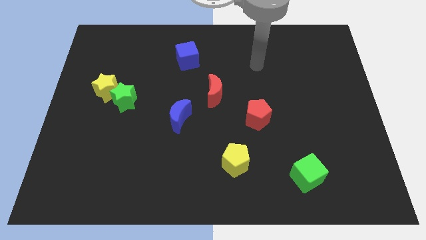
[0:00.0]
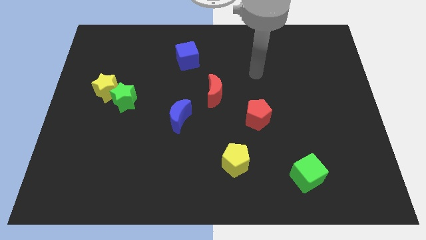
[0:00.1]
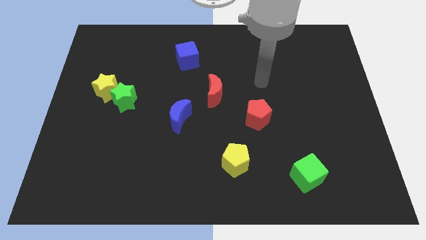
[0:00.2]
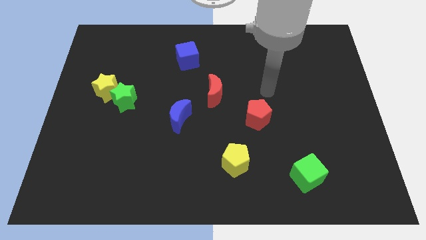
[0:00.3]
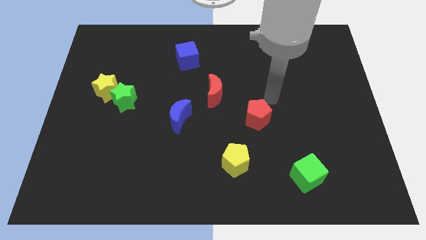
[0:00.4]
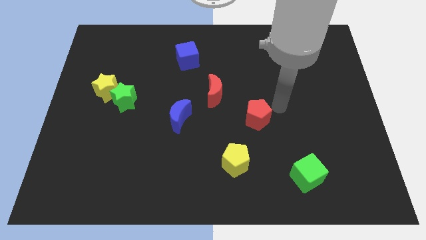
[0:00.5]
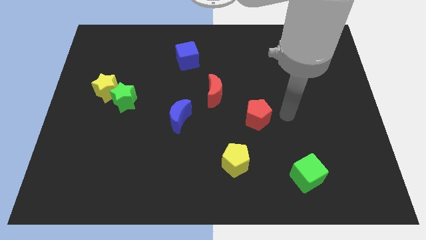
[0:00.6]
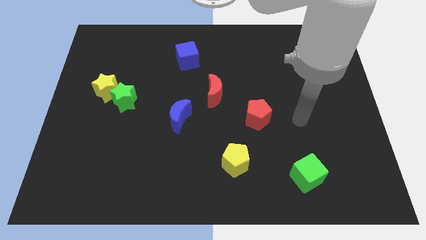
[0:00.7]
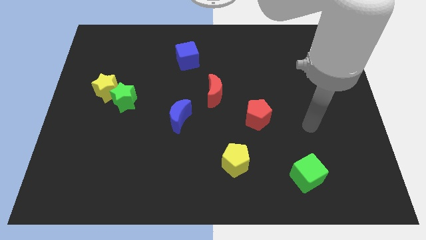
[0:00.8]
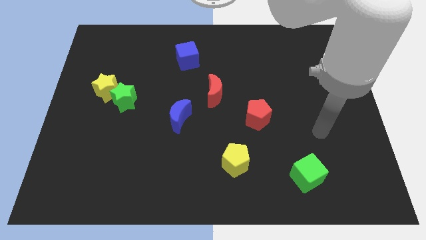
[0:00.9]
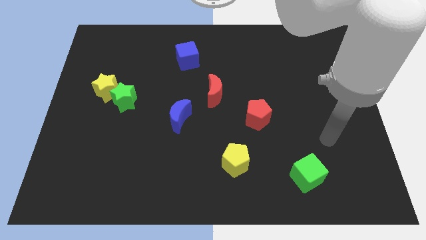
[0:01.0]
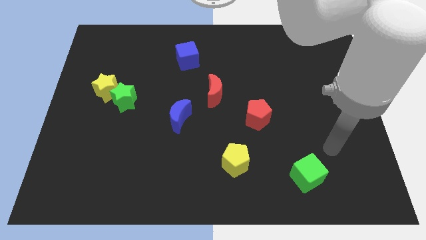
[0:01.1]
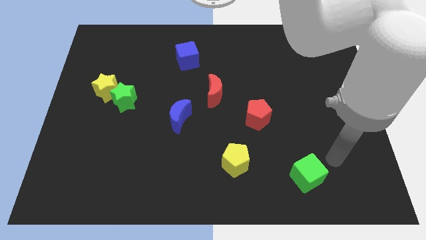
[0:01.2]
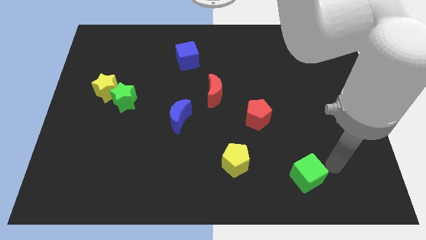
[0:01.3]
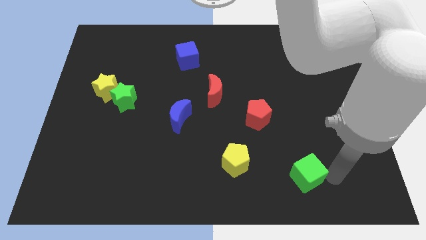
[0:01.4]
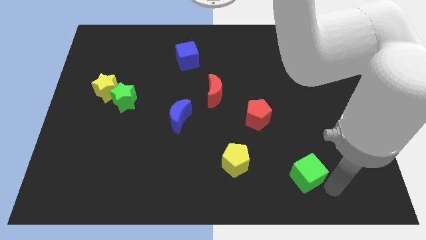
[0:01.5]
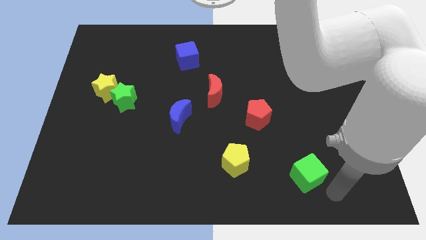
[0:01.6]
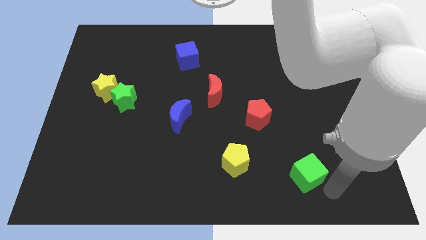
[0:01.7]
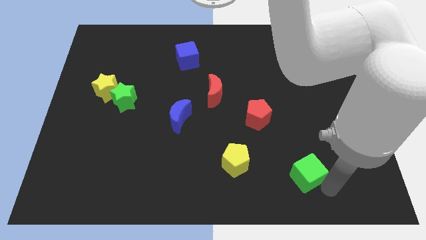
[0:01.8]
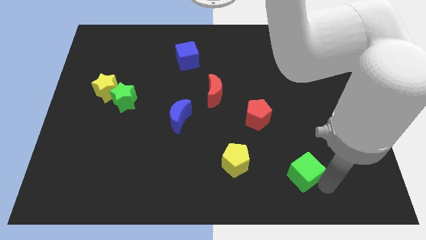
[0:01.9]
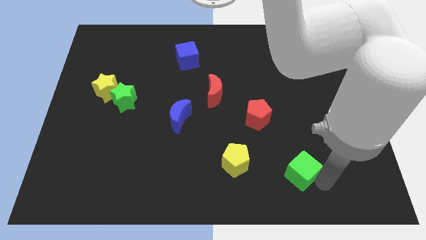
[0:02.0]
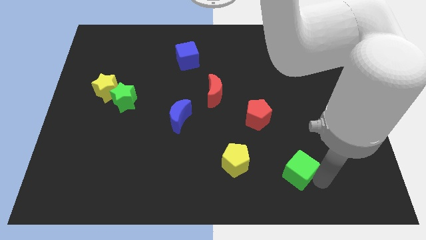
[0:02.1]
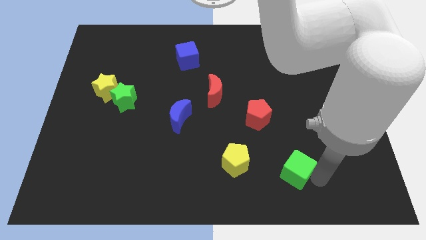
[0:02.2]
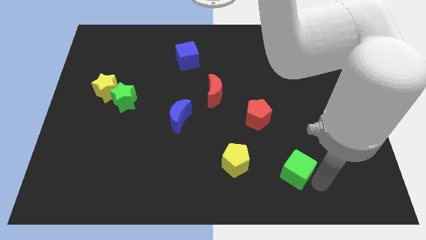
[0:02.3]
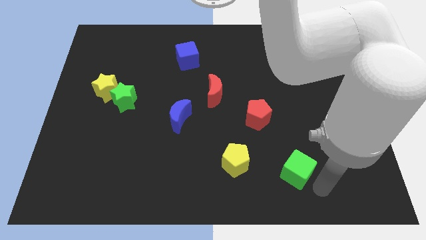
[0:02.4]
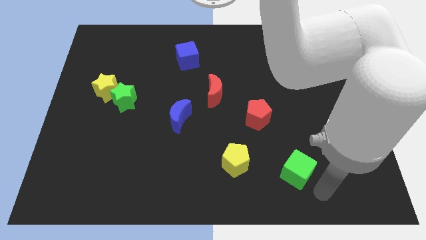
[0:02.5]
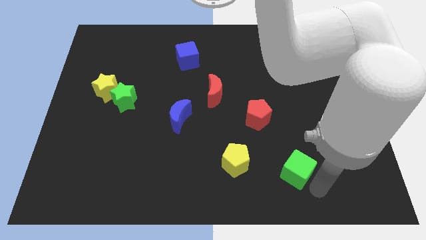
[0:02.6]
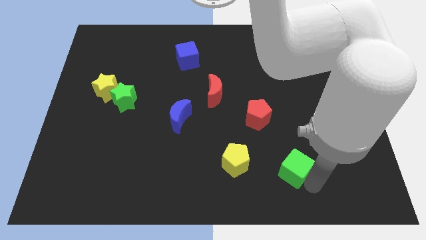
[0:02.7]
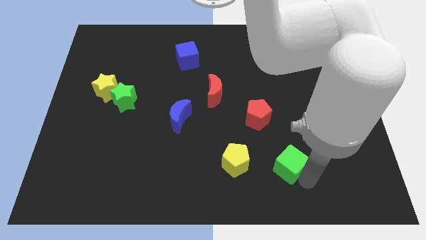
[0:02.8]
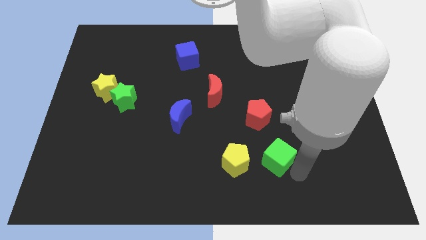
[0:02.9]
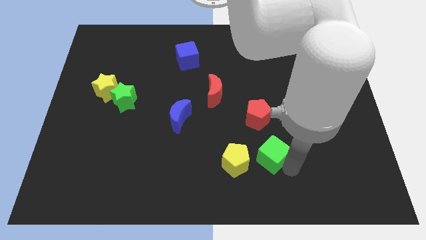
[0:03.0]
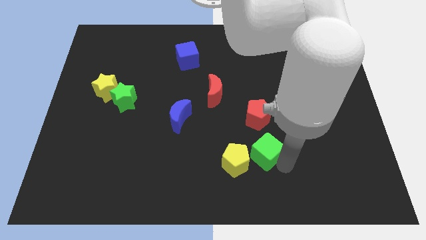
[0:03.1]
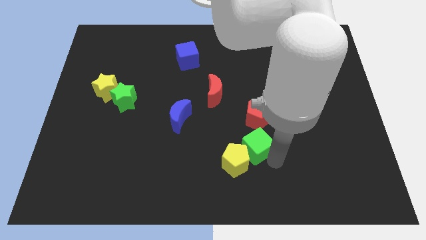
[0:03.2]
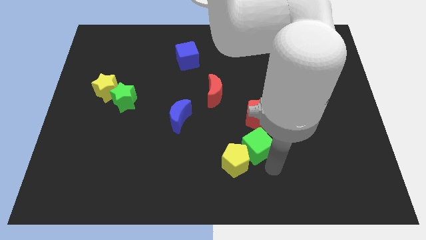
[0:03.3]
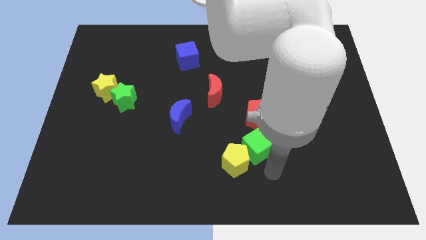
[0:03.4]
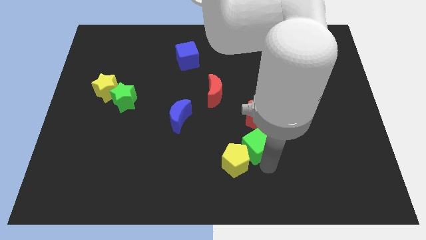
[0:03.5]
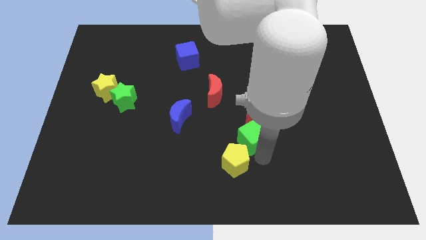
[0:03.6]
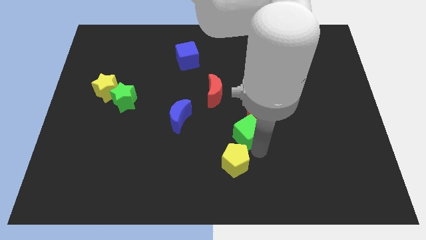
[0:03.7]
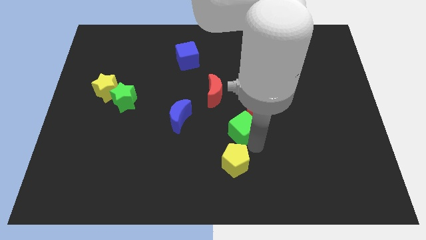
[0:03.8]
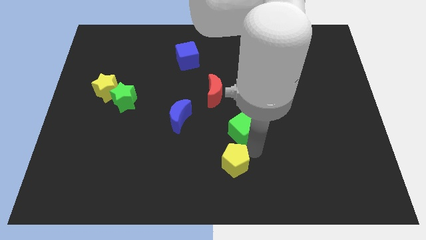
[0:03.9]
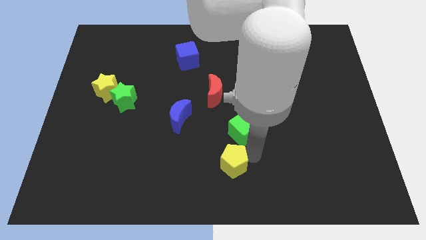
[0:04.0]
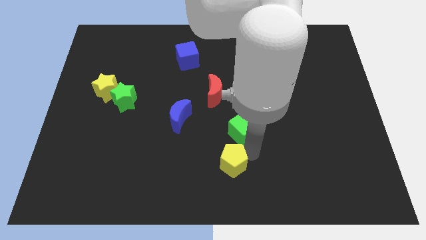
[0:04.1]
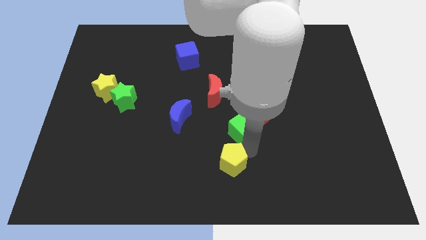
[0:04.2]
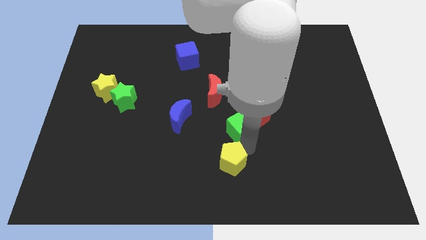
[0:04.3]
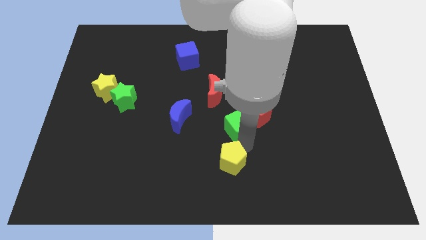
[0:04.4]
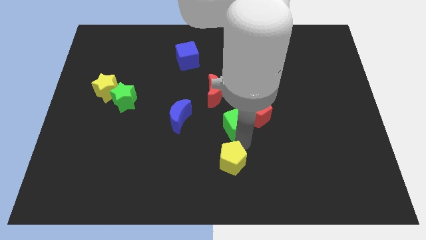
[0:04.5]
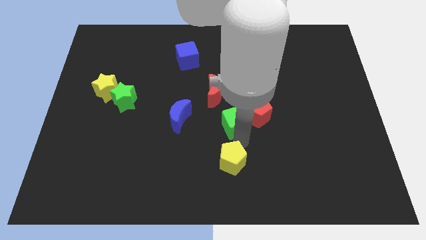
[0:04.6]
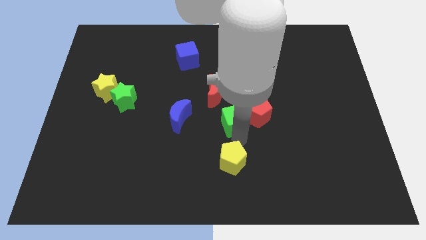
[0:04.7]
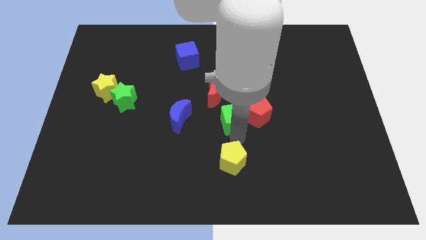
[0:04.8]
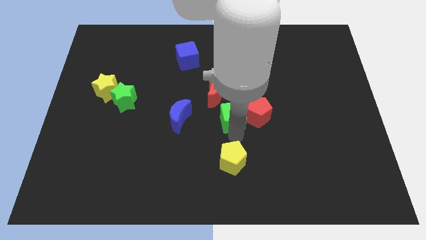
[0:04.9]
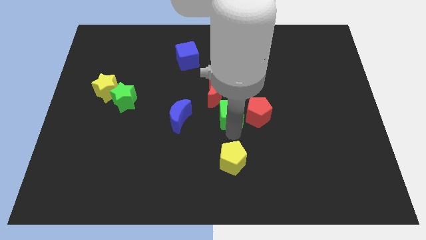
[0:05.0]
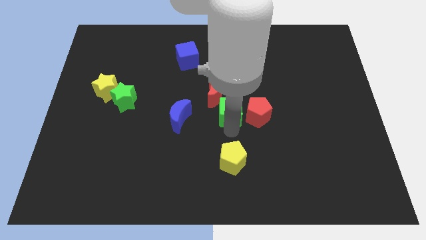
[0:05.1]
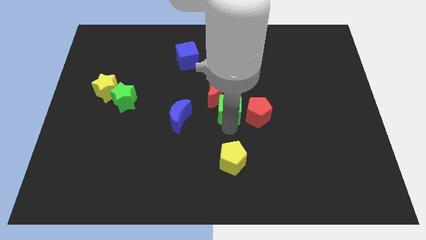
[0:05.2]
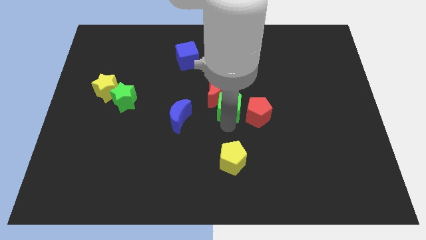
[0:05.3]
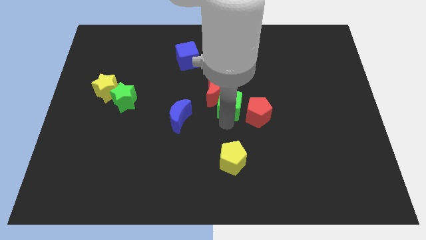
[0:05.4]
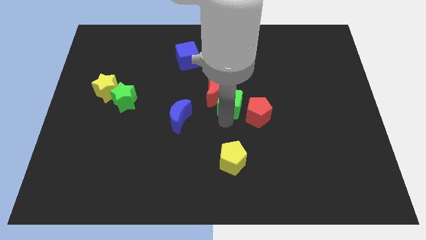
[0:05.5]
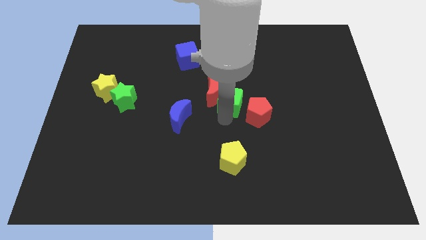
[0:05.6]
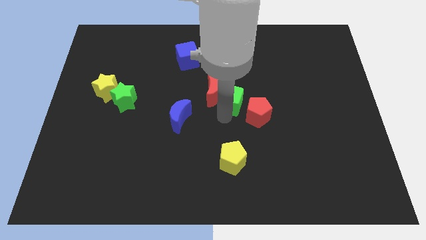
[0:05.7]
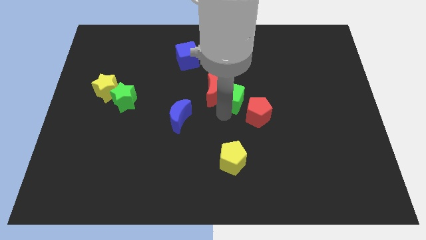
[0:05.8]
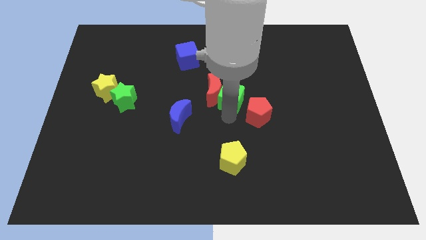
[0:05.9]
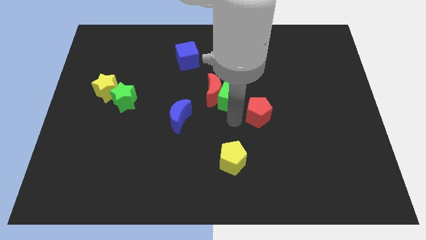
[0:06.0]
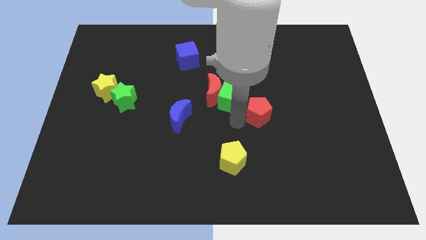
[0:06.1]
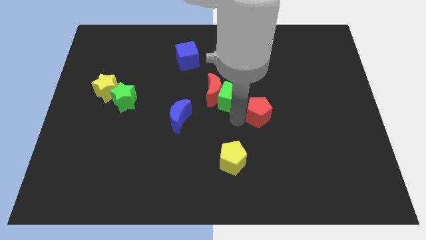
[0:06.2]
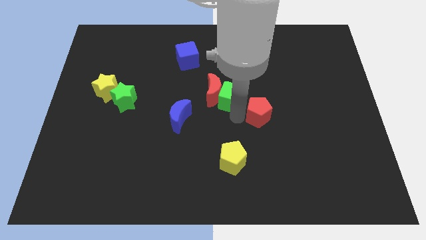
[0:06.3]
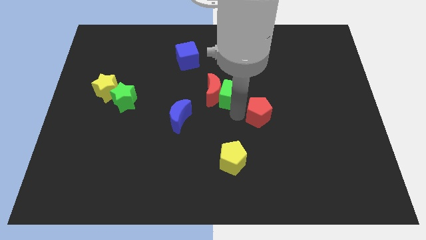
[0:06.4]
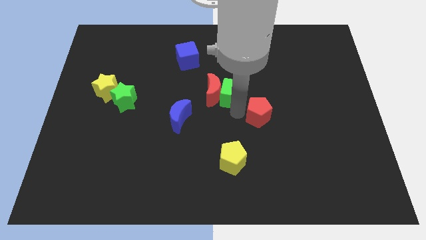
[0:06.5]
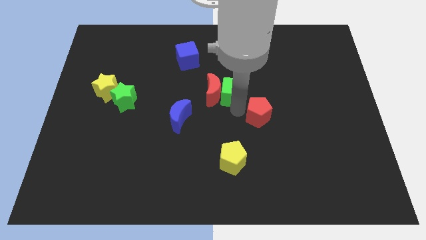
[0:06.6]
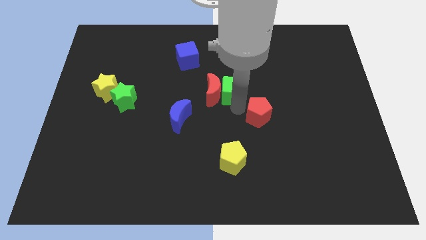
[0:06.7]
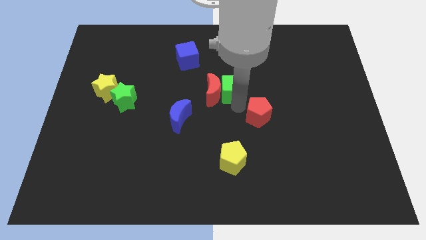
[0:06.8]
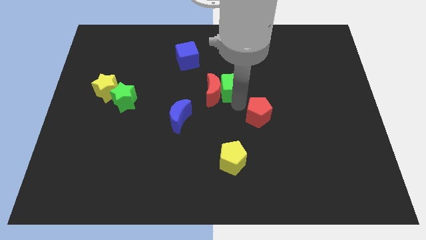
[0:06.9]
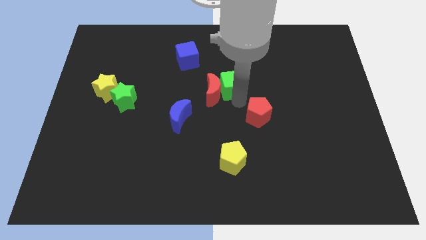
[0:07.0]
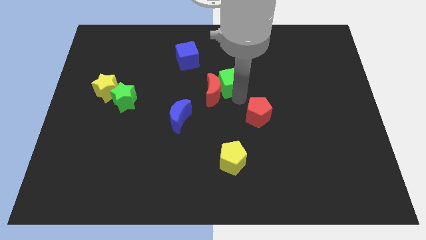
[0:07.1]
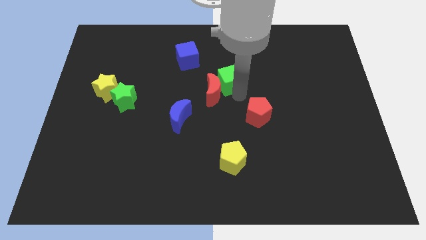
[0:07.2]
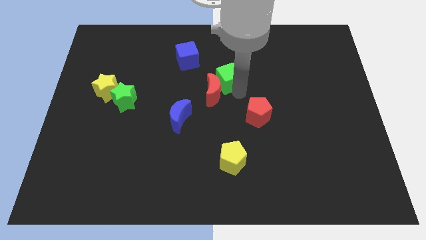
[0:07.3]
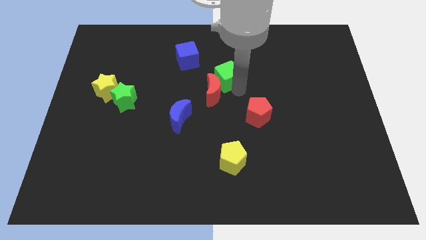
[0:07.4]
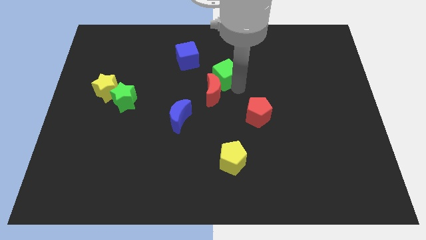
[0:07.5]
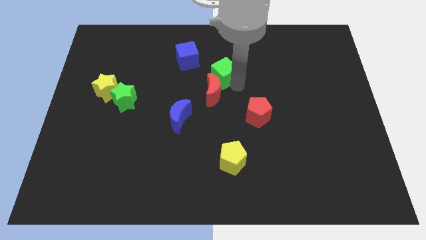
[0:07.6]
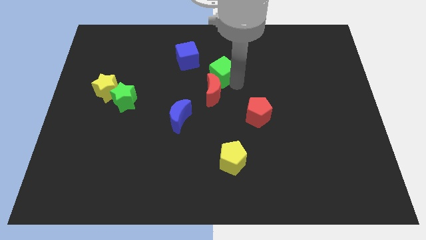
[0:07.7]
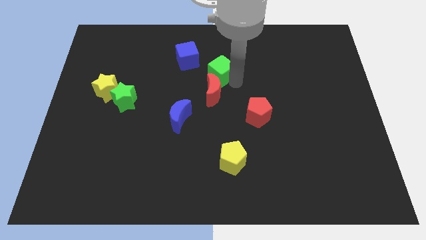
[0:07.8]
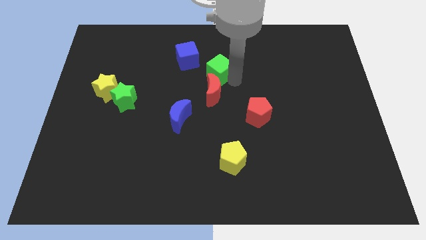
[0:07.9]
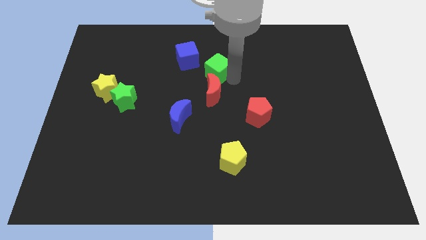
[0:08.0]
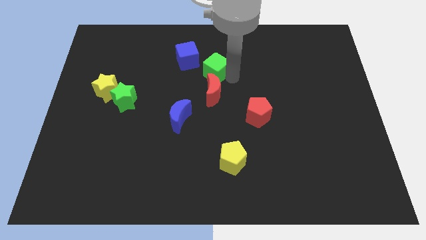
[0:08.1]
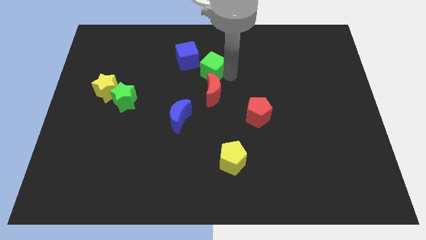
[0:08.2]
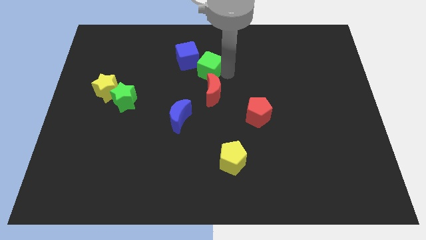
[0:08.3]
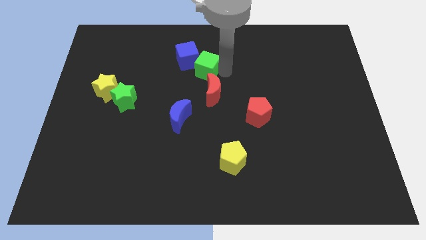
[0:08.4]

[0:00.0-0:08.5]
slide the green cube next to the blue cube
